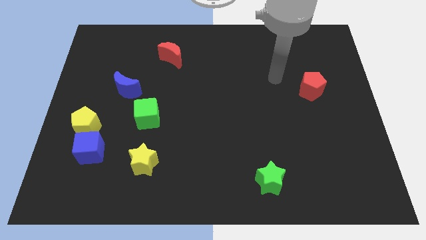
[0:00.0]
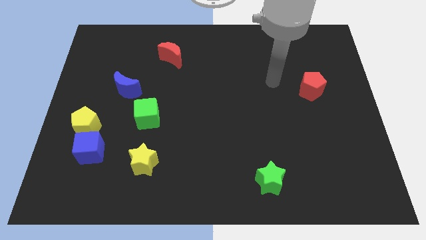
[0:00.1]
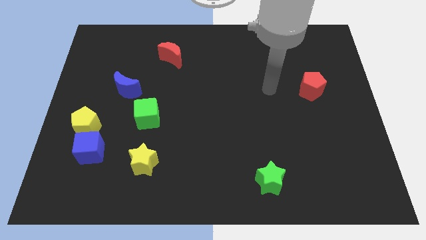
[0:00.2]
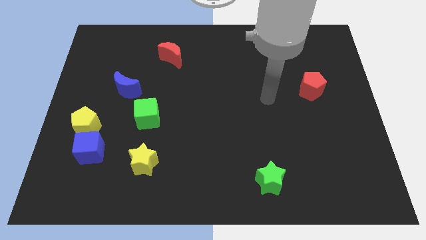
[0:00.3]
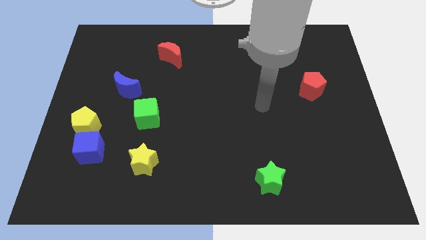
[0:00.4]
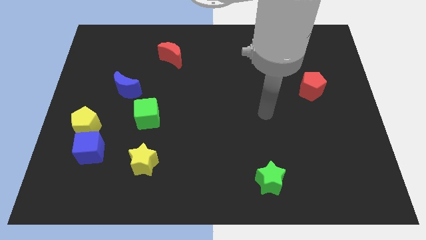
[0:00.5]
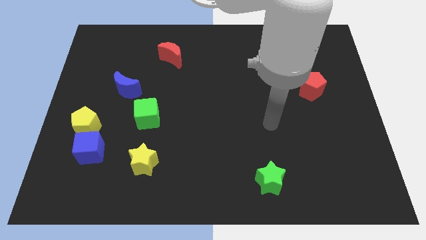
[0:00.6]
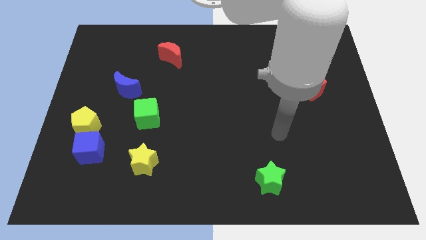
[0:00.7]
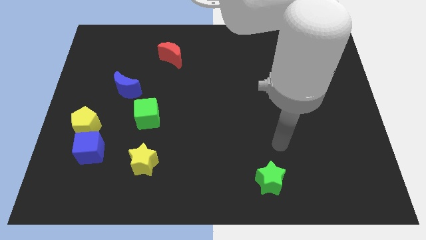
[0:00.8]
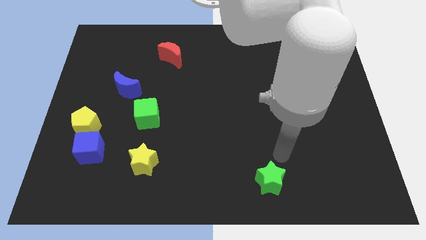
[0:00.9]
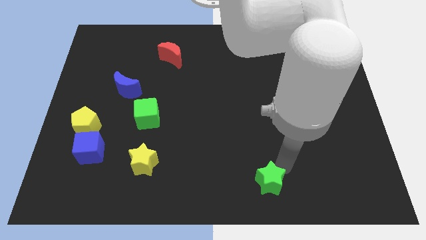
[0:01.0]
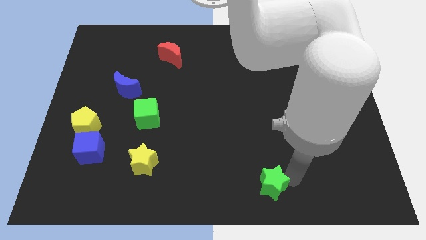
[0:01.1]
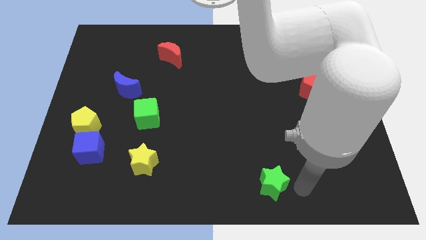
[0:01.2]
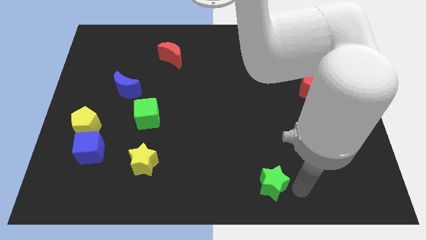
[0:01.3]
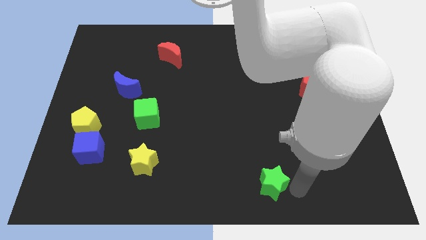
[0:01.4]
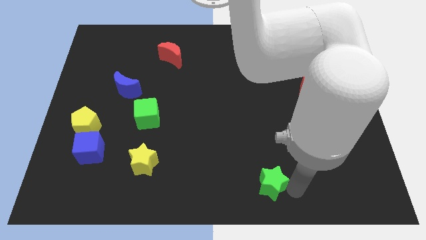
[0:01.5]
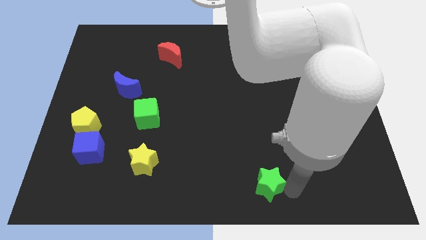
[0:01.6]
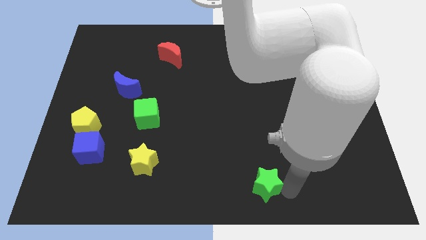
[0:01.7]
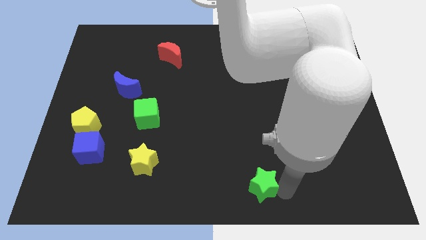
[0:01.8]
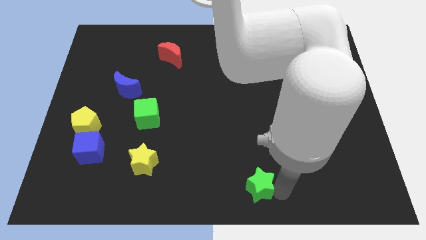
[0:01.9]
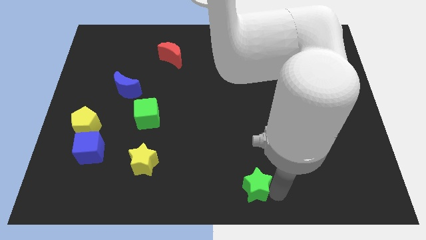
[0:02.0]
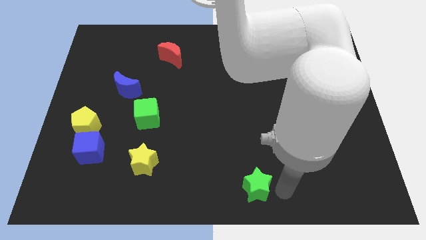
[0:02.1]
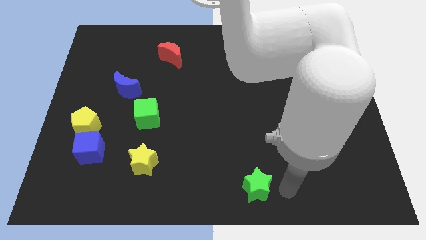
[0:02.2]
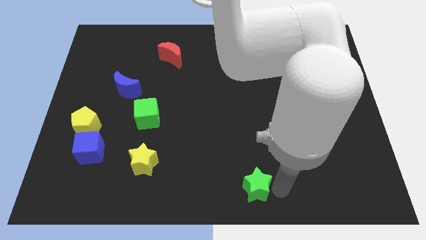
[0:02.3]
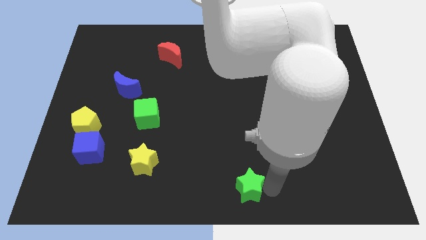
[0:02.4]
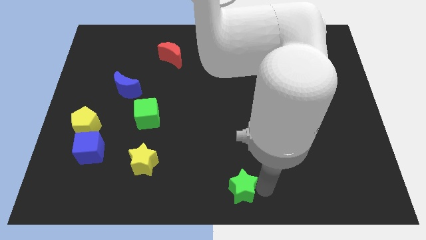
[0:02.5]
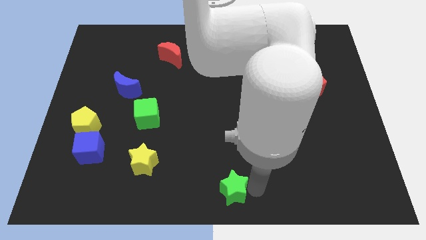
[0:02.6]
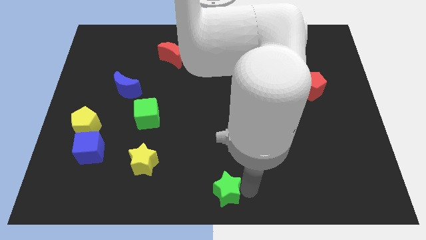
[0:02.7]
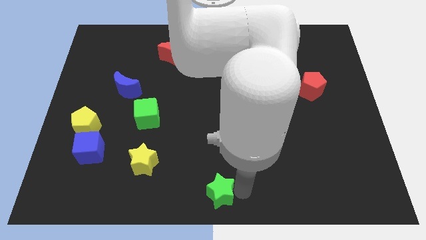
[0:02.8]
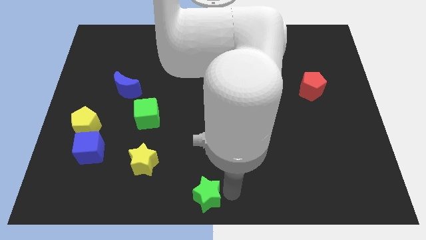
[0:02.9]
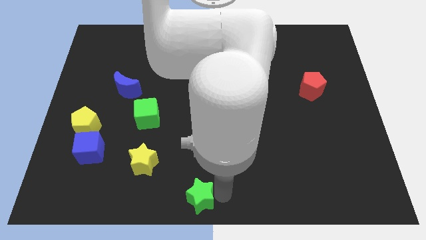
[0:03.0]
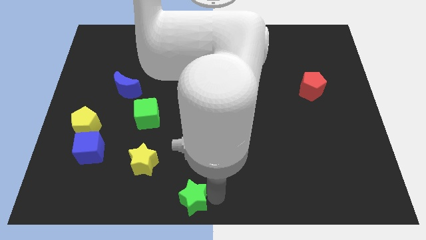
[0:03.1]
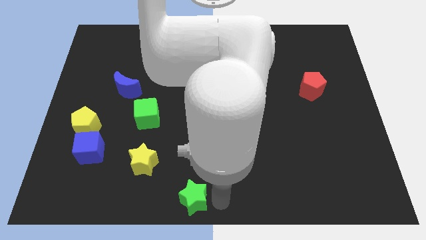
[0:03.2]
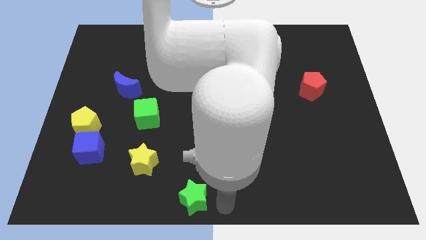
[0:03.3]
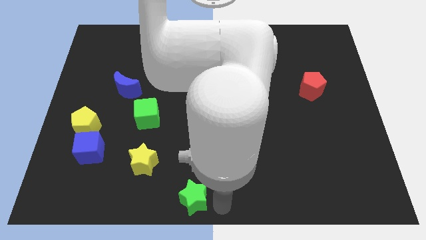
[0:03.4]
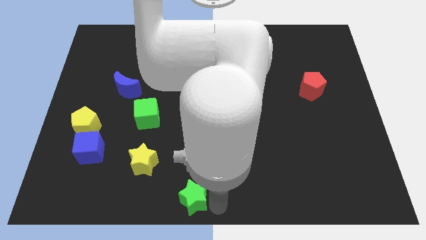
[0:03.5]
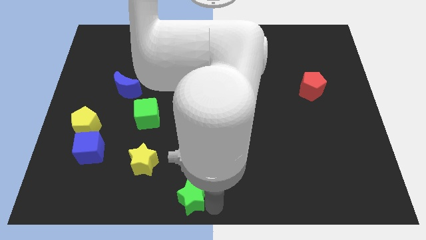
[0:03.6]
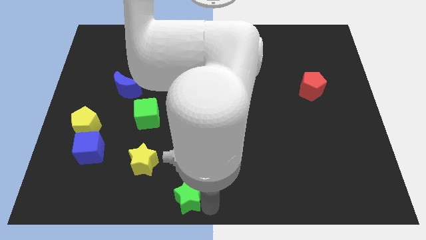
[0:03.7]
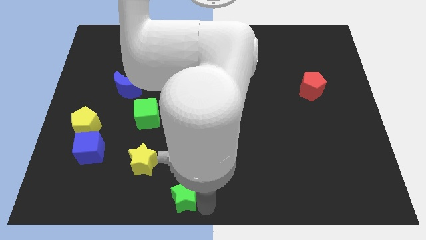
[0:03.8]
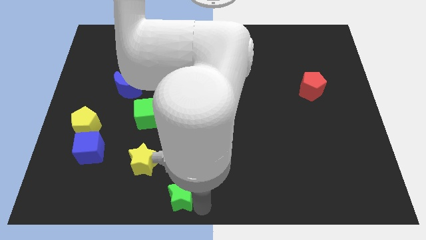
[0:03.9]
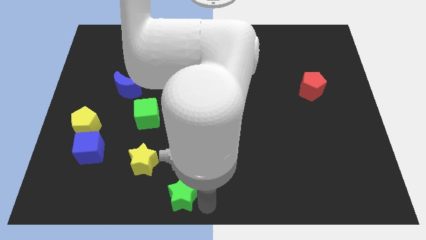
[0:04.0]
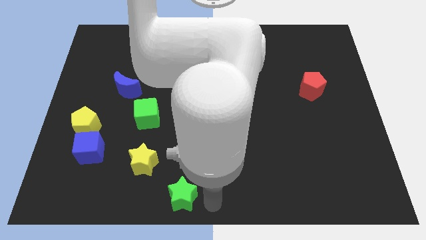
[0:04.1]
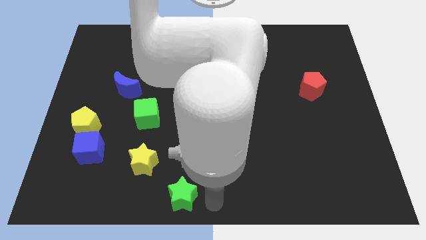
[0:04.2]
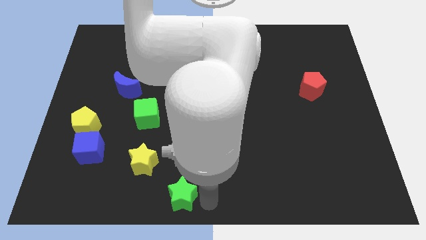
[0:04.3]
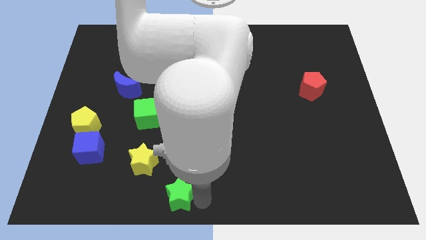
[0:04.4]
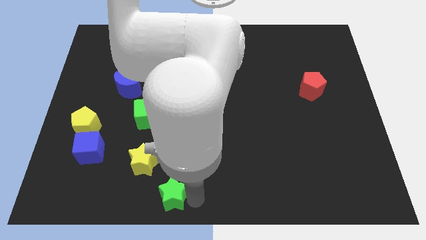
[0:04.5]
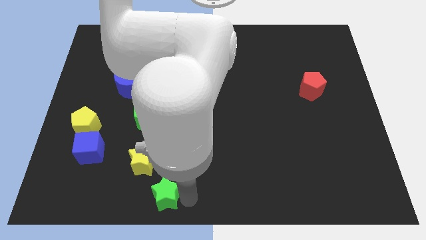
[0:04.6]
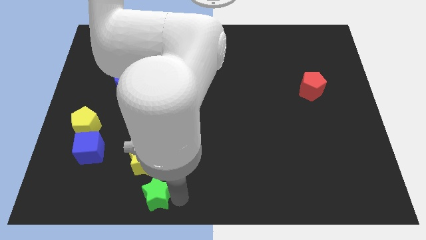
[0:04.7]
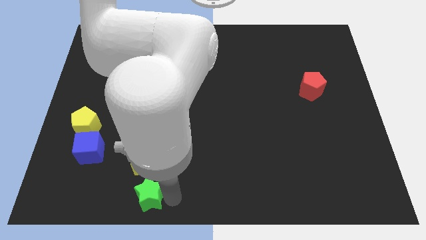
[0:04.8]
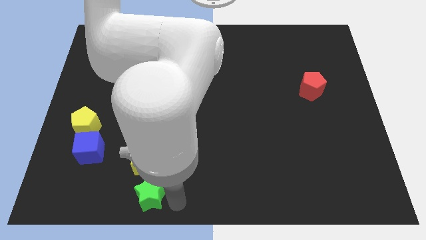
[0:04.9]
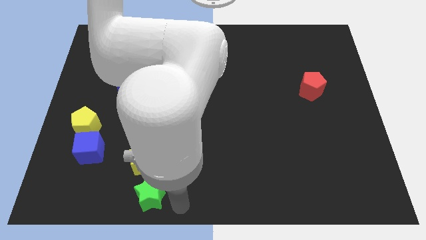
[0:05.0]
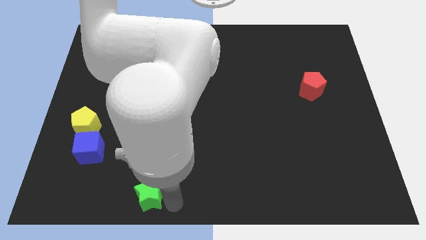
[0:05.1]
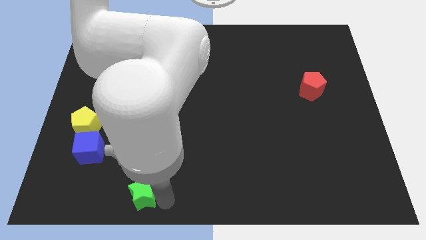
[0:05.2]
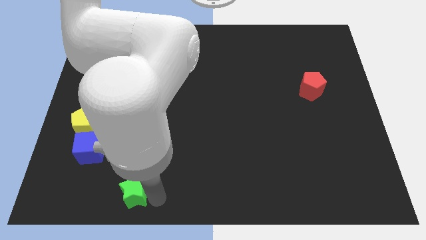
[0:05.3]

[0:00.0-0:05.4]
move the green star diagonally down and to the left of the yellow star
